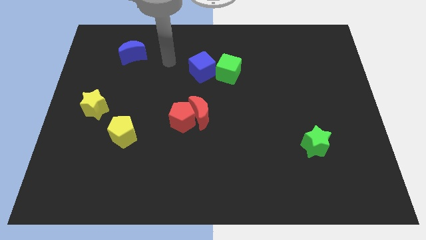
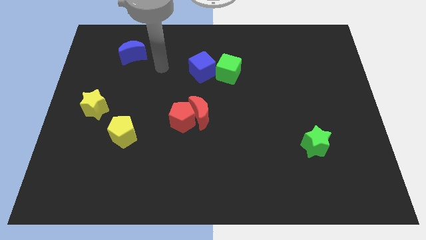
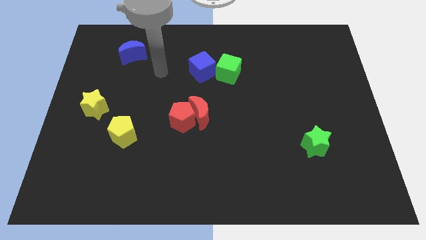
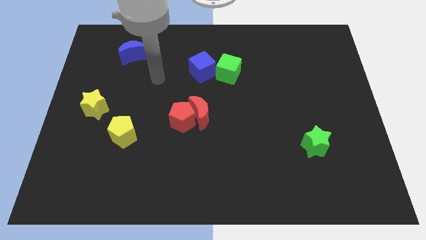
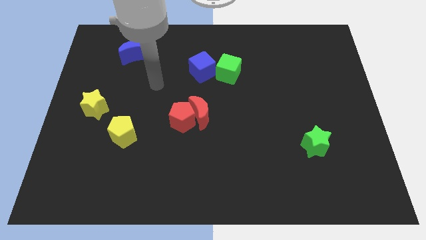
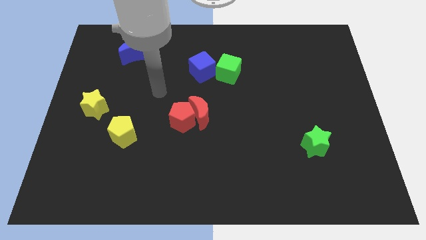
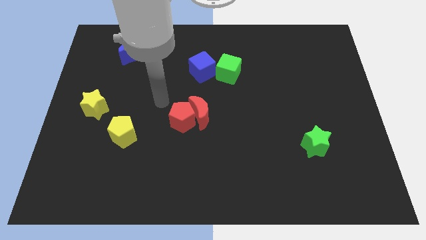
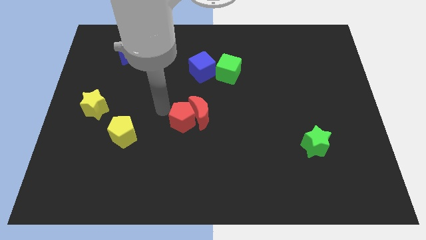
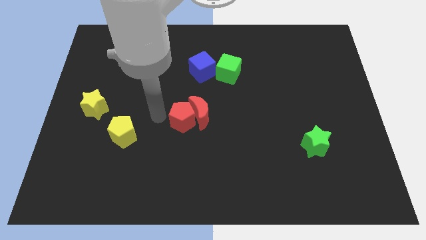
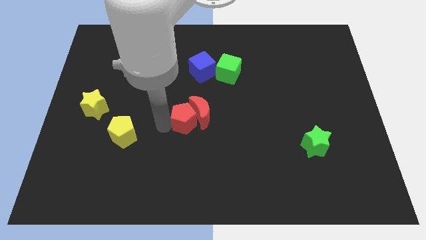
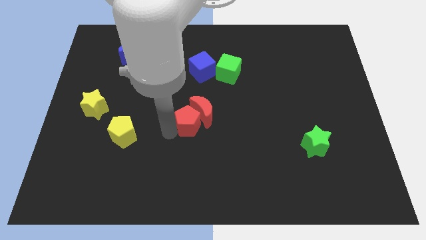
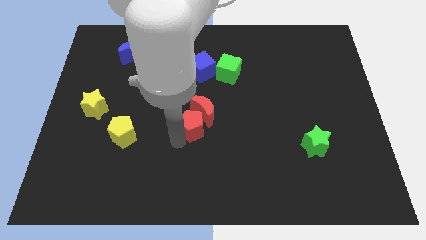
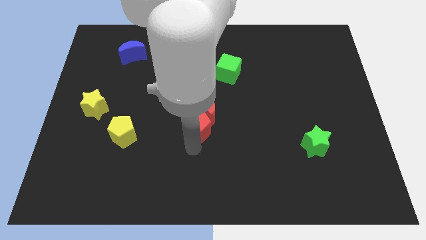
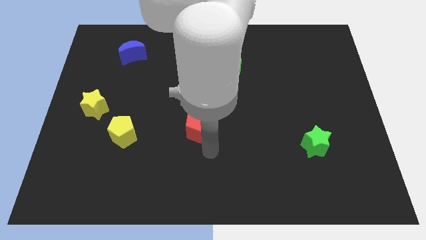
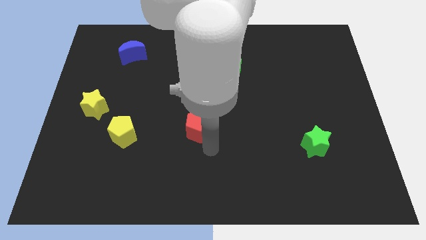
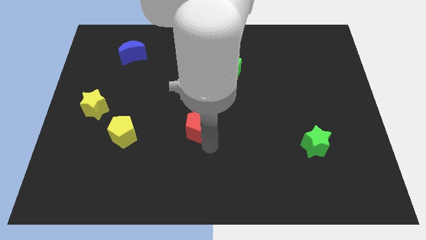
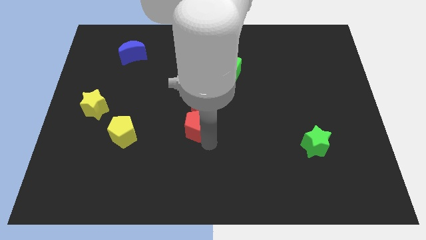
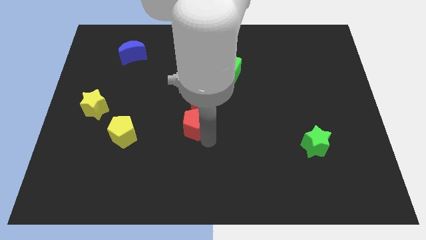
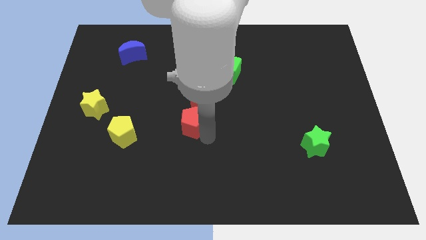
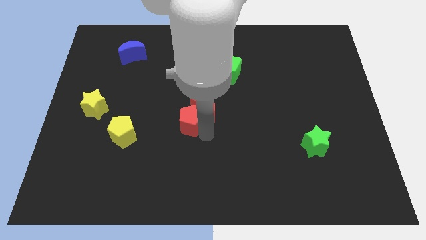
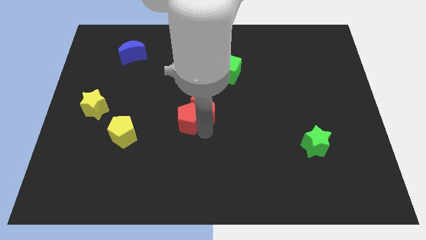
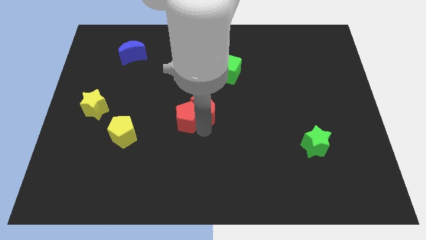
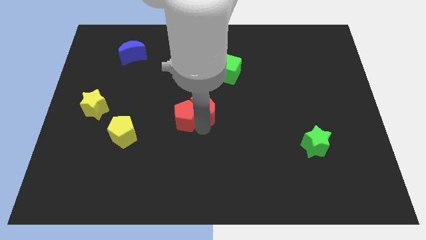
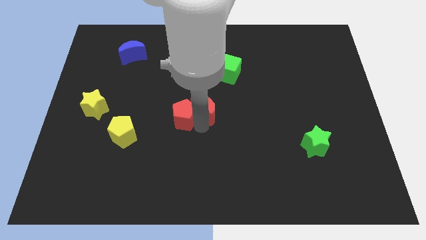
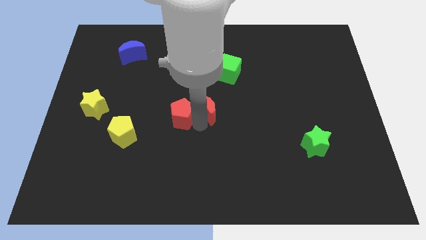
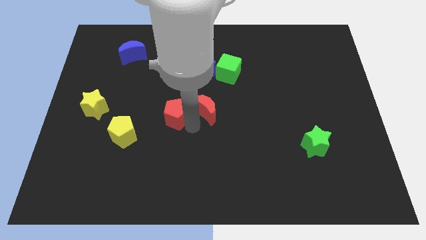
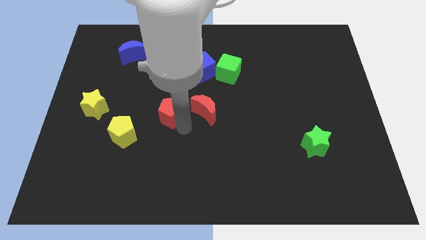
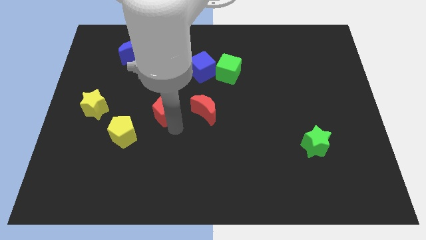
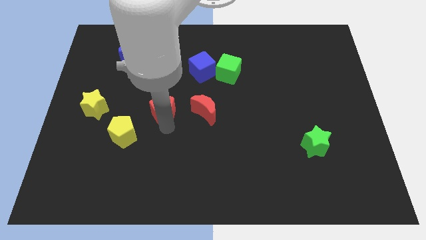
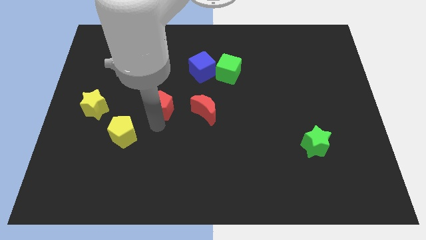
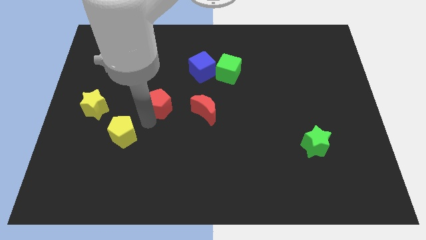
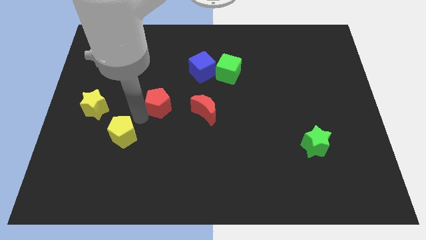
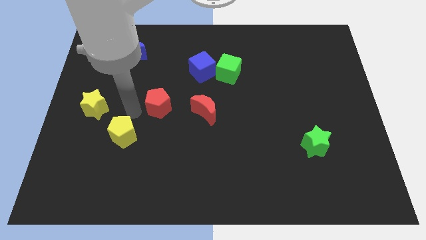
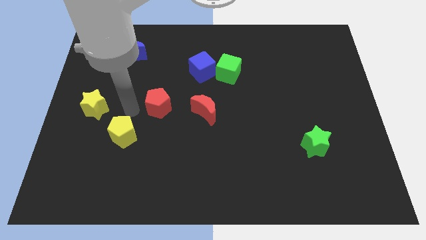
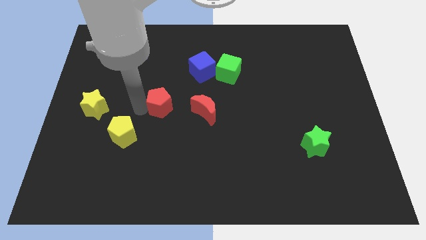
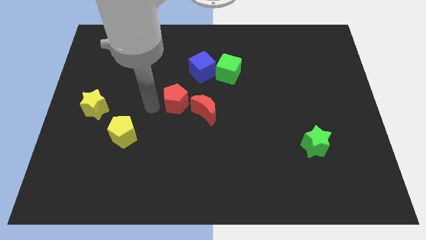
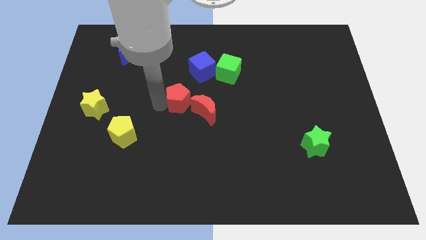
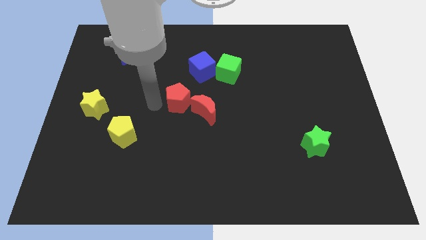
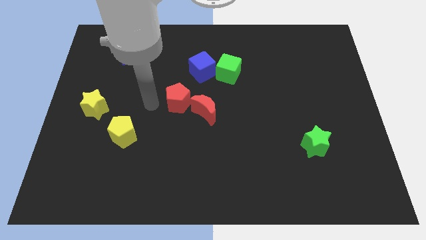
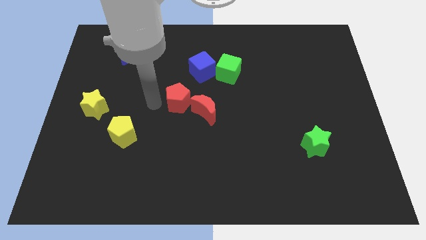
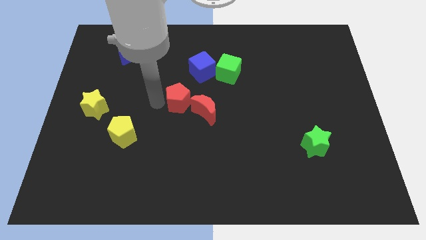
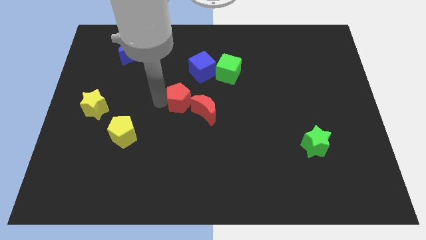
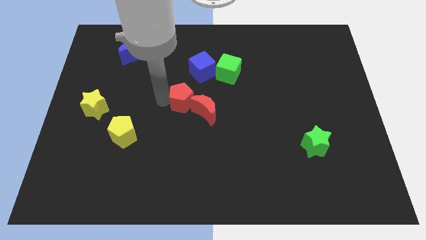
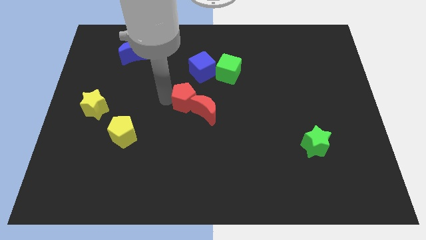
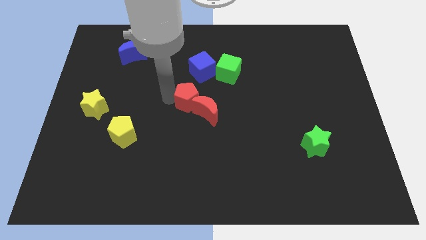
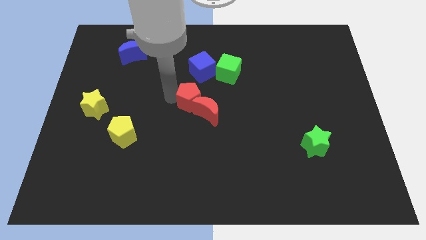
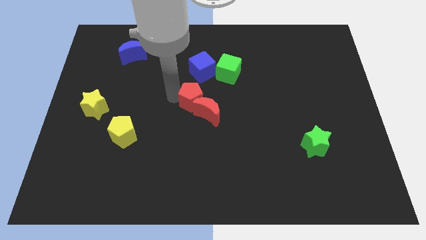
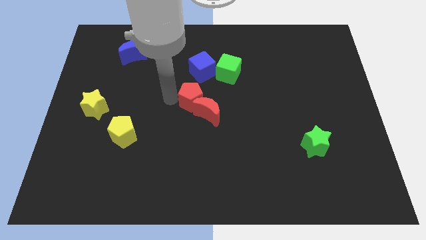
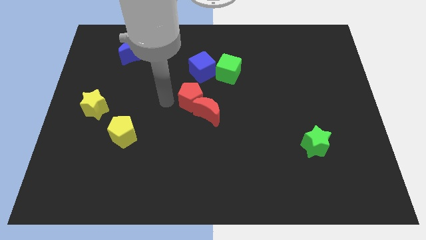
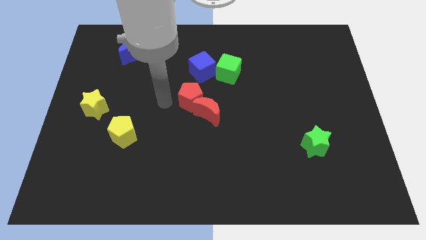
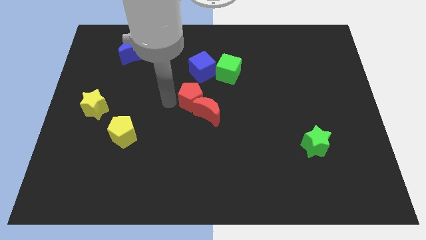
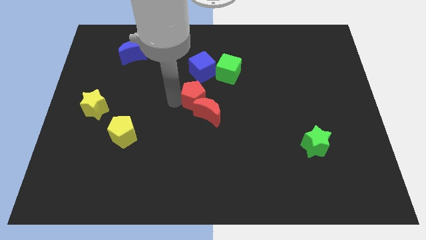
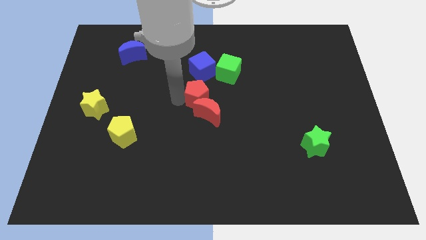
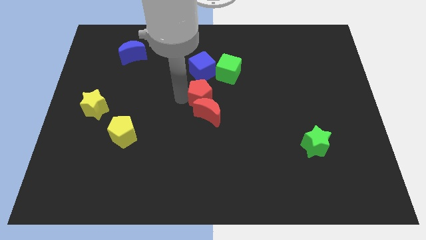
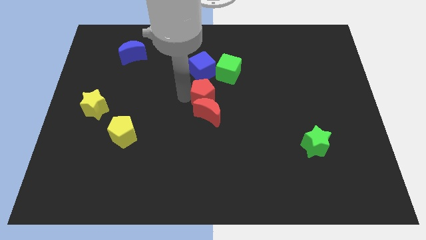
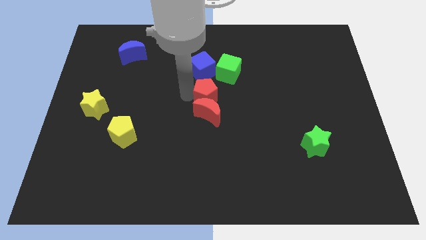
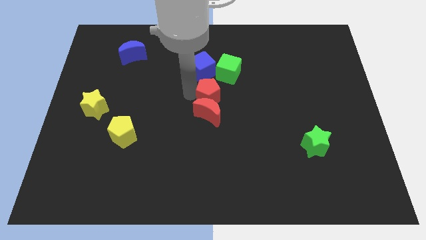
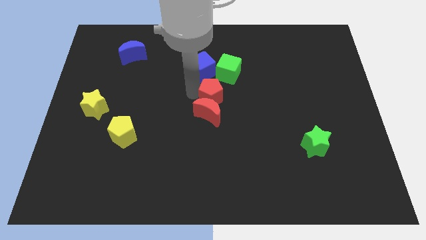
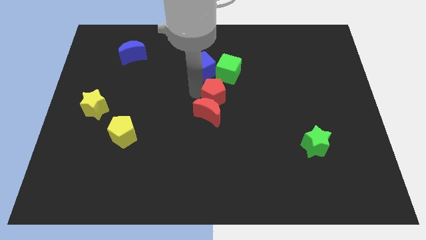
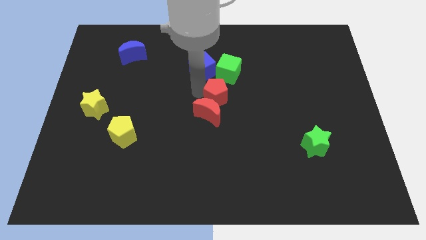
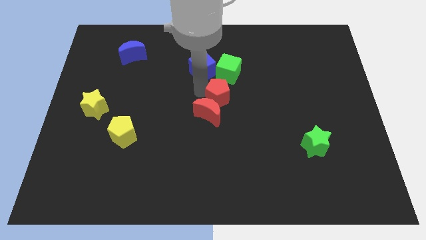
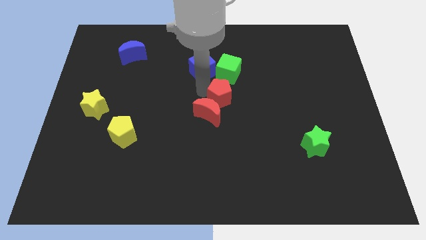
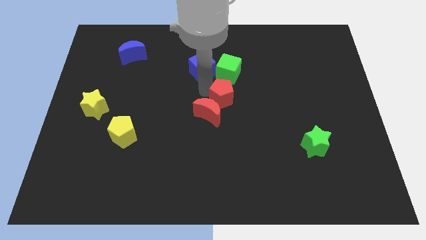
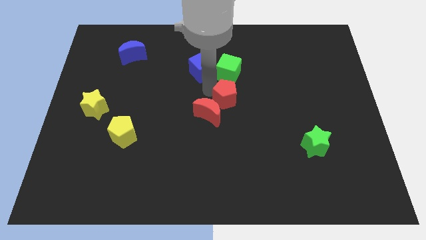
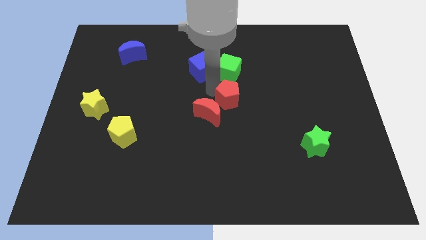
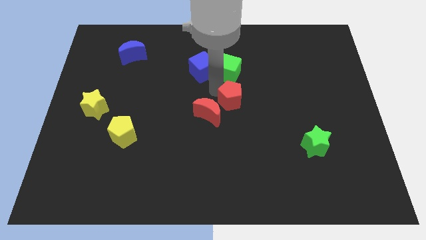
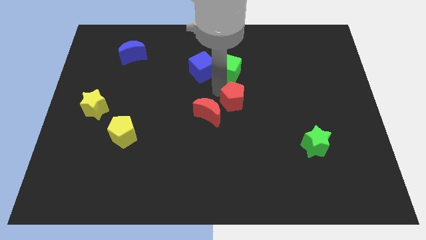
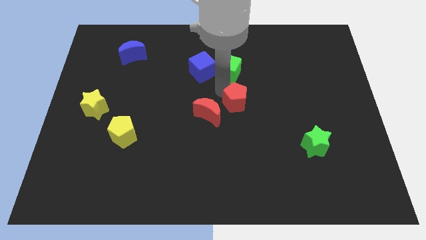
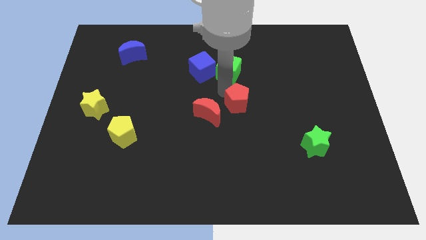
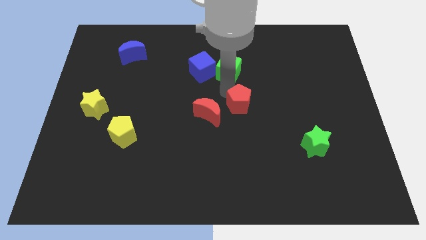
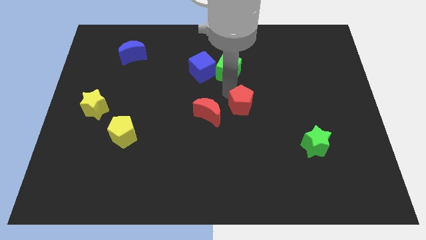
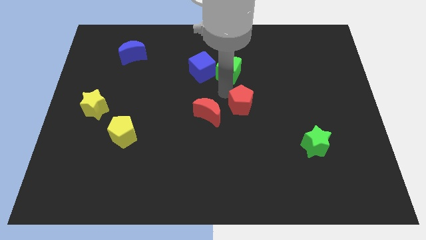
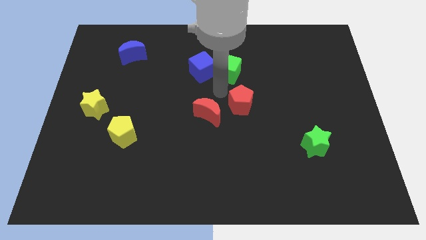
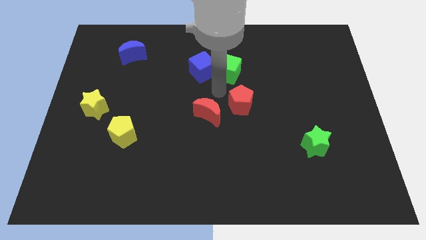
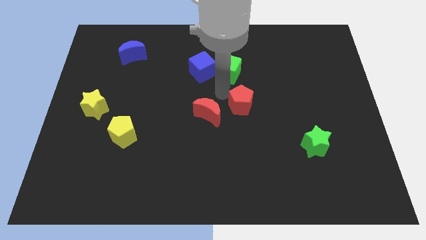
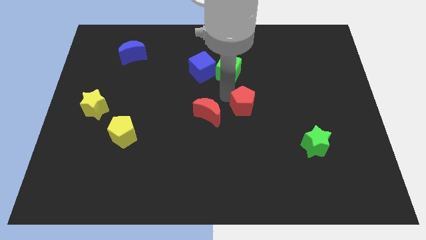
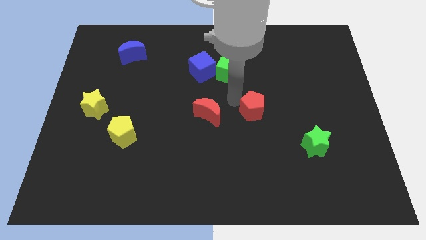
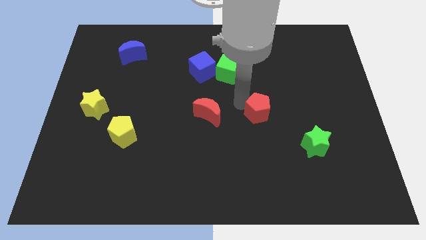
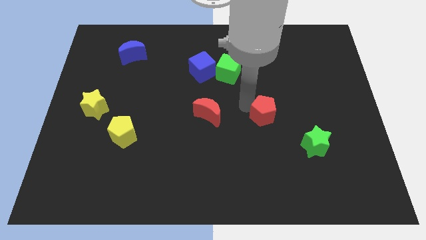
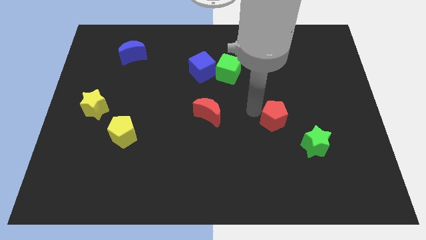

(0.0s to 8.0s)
slide the red pentagon to the right
